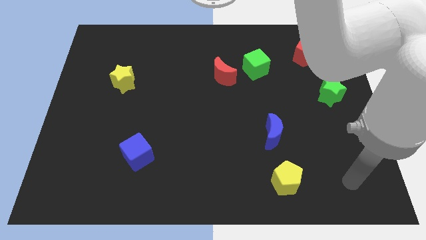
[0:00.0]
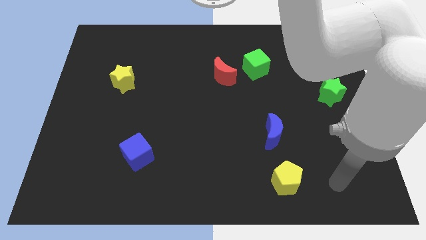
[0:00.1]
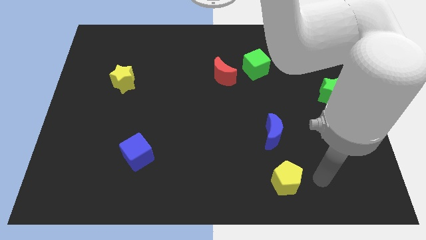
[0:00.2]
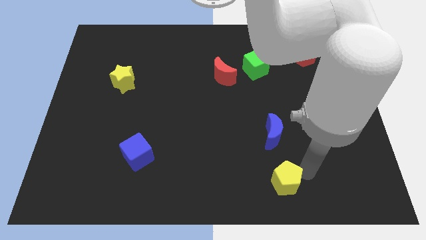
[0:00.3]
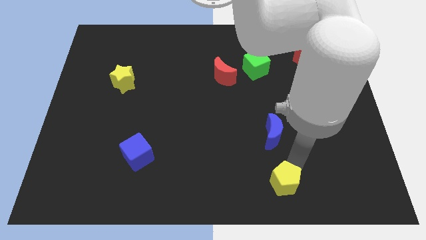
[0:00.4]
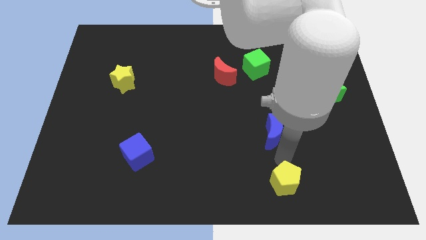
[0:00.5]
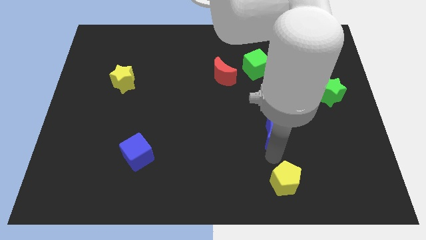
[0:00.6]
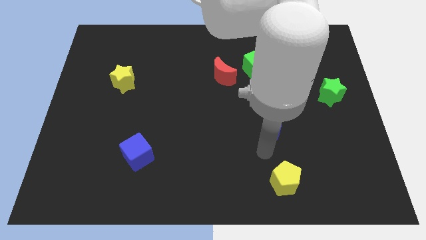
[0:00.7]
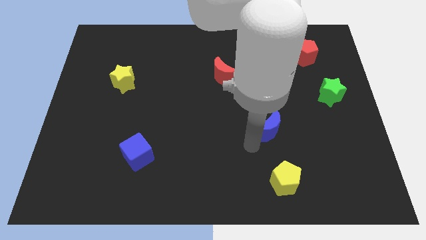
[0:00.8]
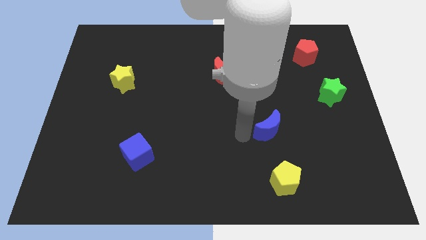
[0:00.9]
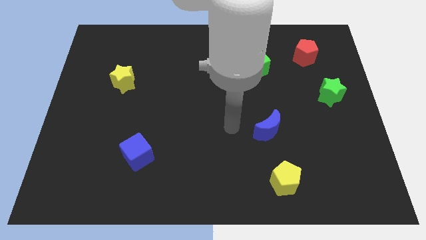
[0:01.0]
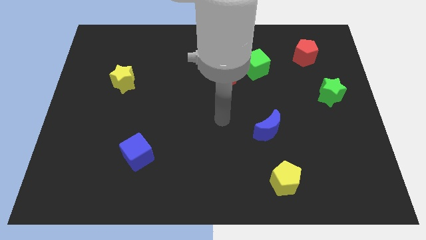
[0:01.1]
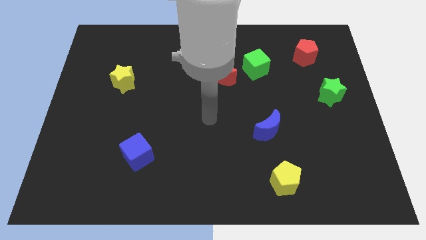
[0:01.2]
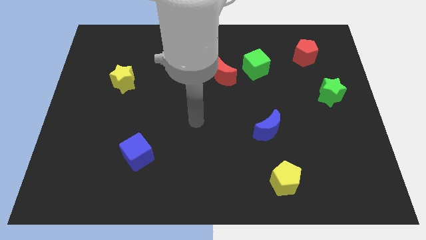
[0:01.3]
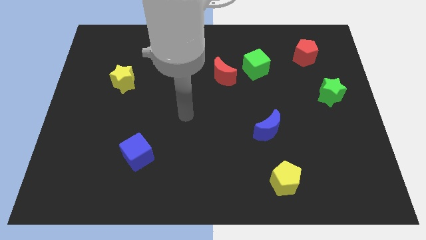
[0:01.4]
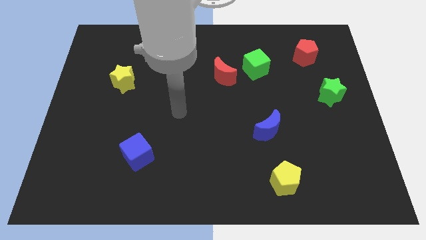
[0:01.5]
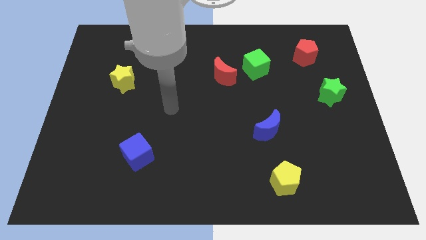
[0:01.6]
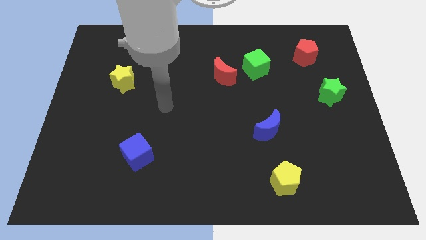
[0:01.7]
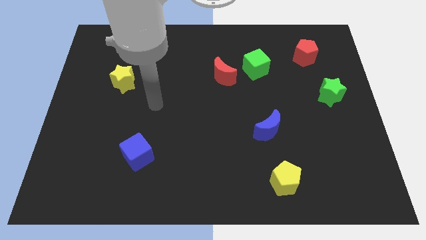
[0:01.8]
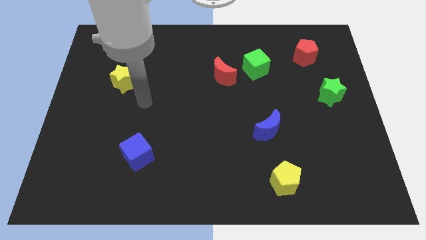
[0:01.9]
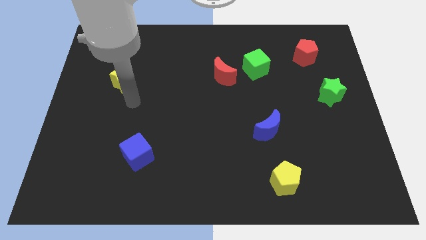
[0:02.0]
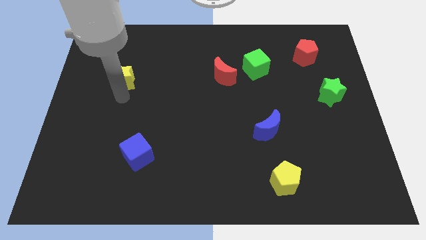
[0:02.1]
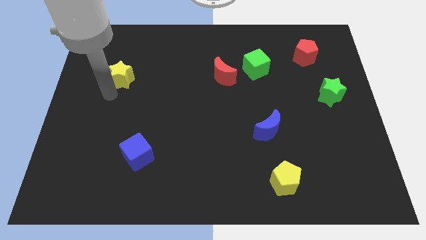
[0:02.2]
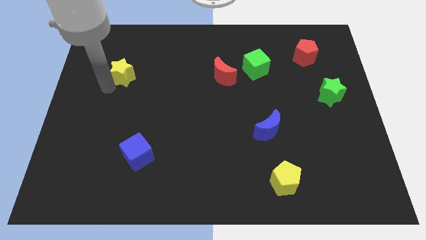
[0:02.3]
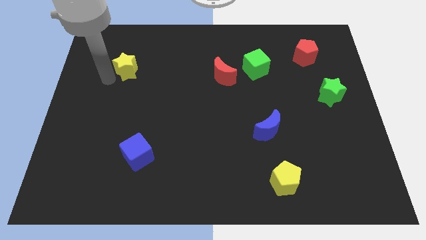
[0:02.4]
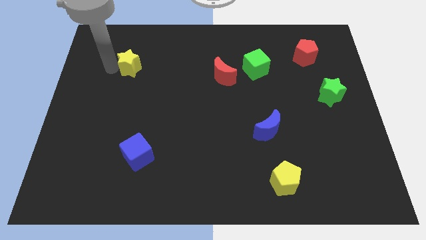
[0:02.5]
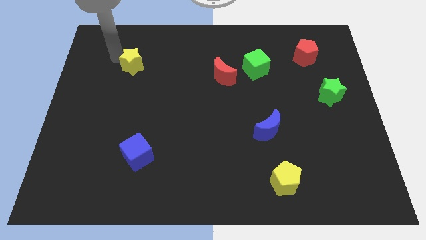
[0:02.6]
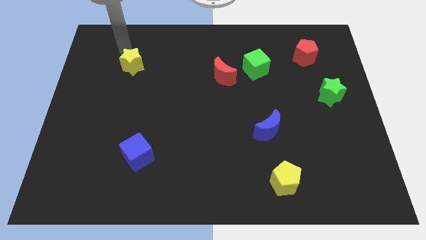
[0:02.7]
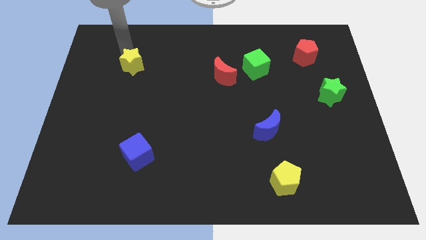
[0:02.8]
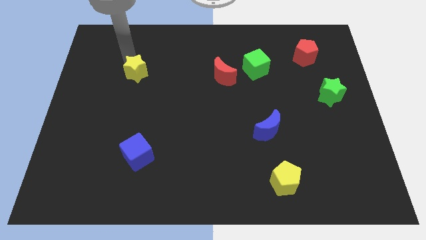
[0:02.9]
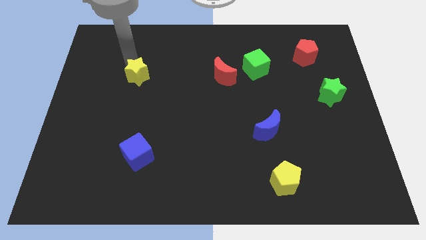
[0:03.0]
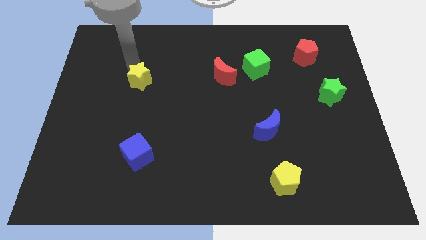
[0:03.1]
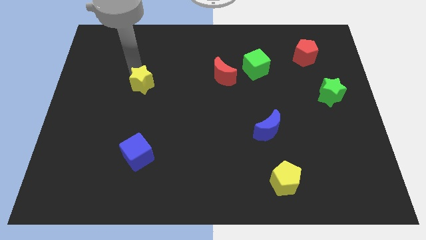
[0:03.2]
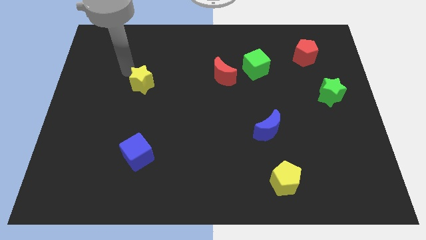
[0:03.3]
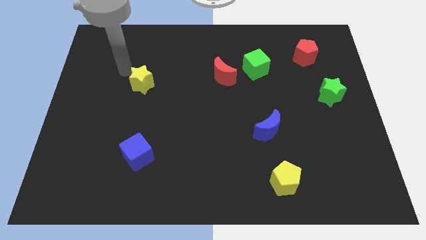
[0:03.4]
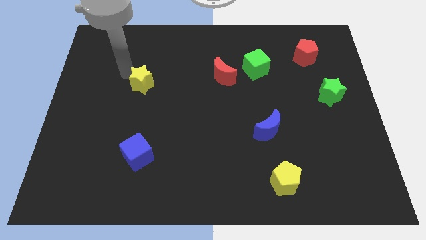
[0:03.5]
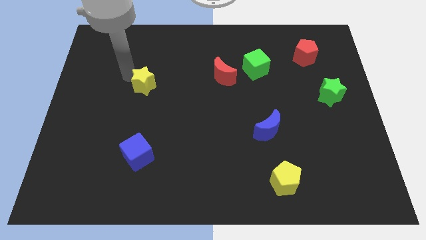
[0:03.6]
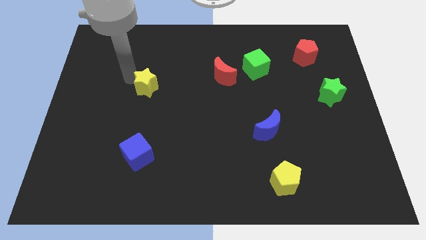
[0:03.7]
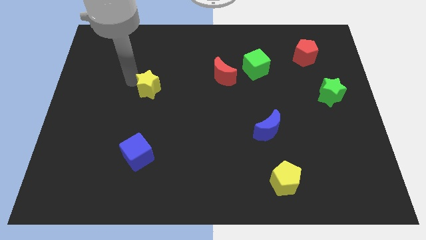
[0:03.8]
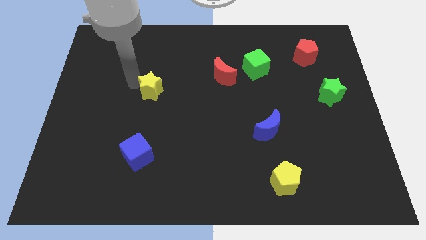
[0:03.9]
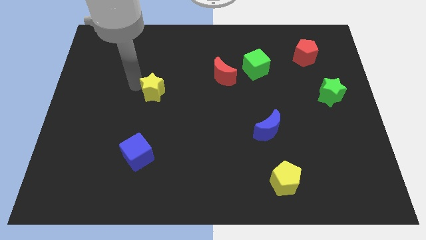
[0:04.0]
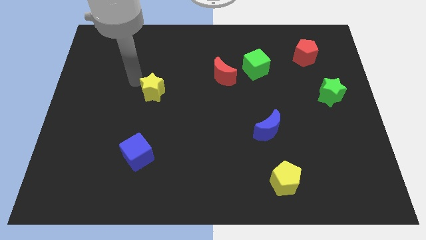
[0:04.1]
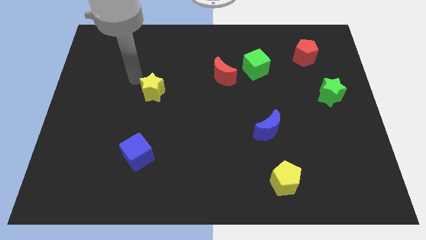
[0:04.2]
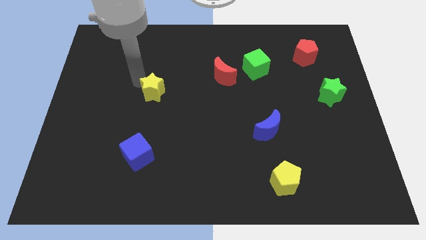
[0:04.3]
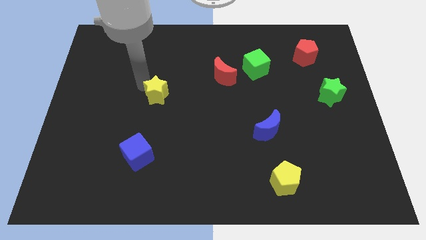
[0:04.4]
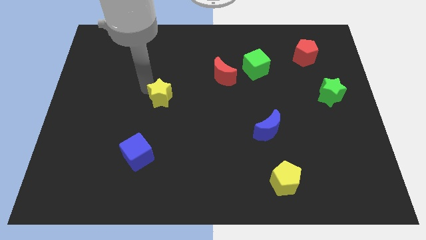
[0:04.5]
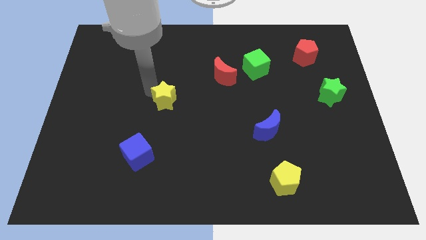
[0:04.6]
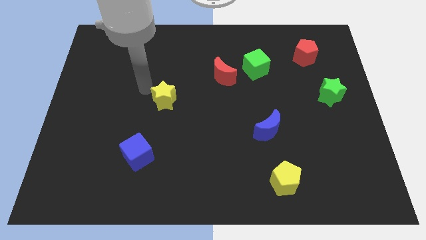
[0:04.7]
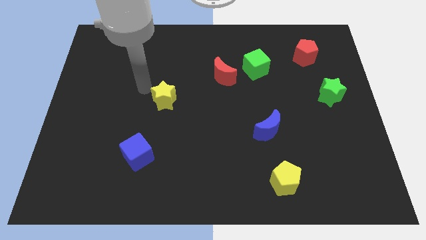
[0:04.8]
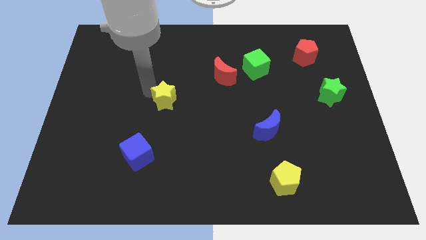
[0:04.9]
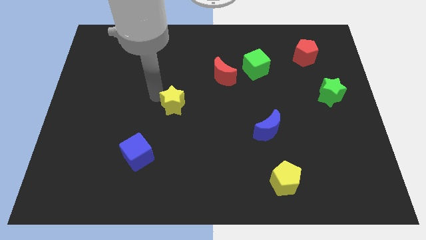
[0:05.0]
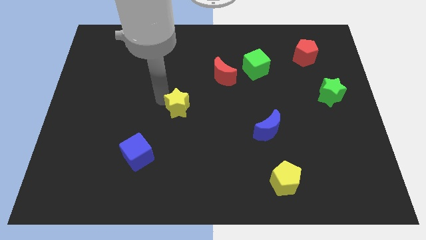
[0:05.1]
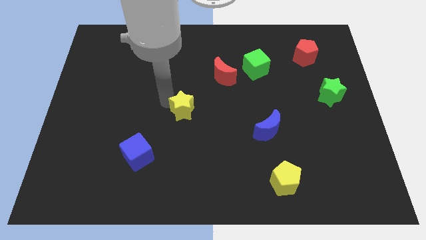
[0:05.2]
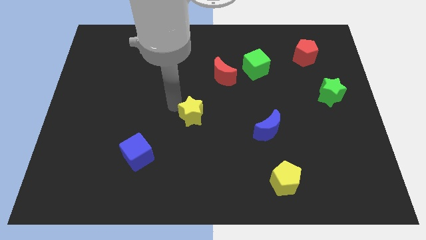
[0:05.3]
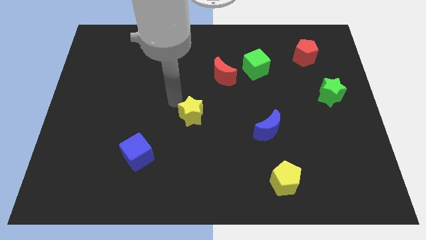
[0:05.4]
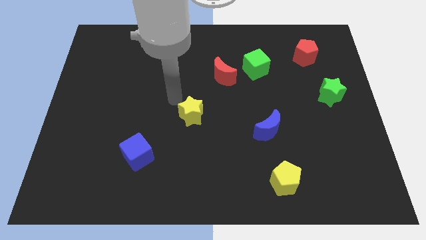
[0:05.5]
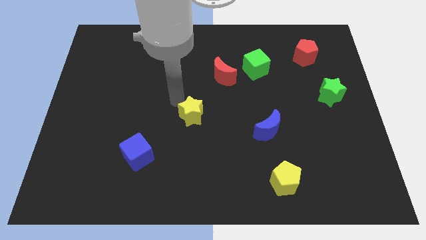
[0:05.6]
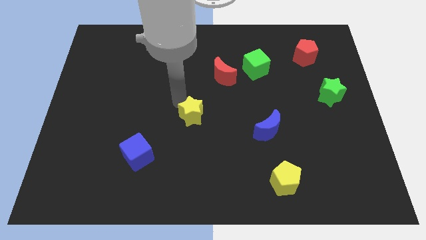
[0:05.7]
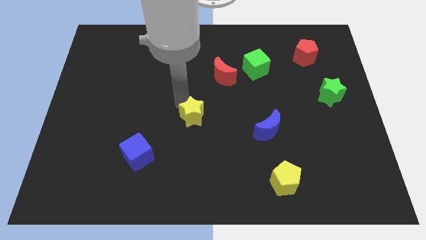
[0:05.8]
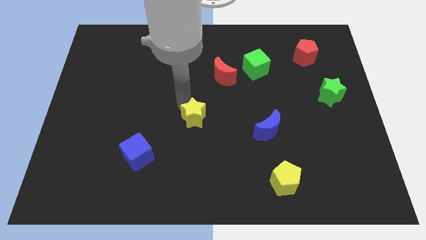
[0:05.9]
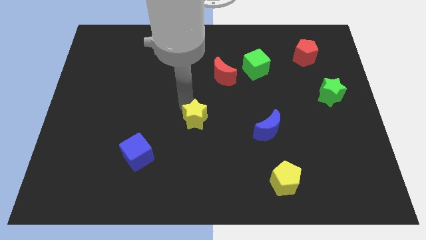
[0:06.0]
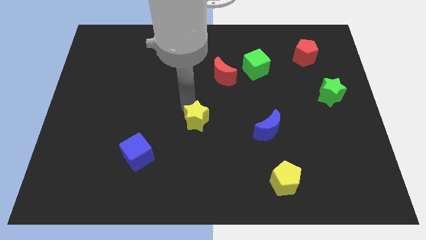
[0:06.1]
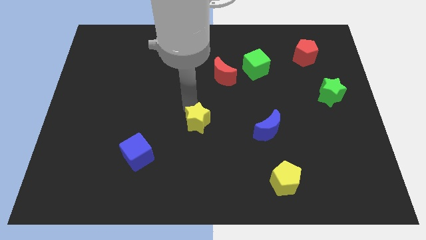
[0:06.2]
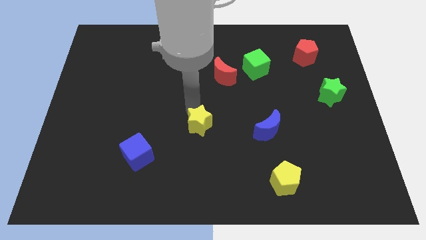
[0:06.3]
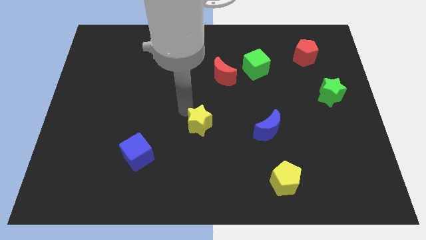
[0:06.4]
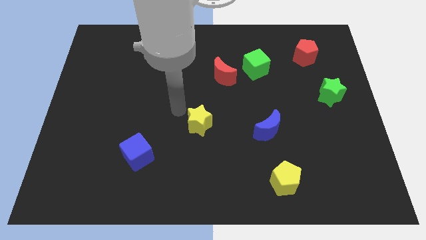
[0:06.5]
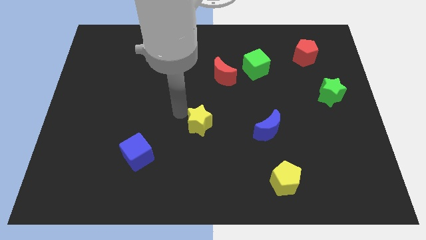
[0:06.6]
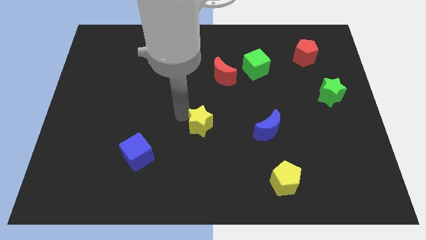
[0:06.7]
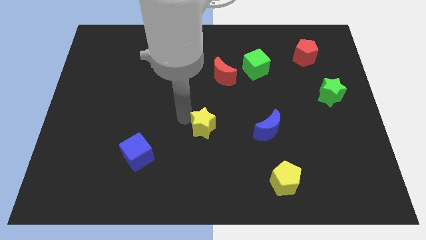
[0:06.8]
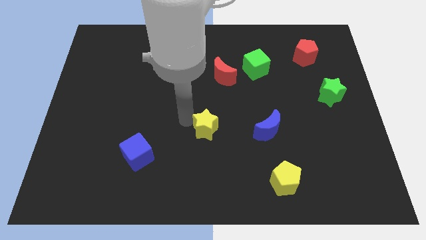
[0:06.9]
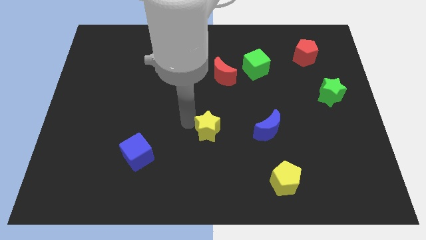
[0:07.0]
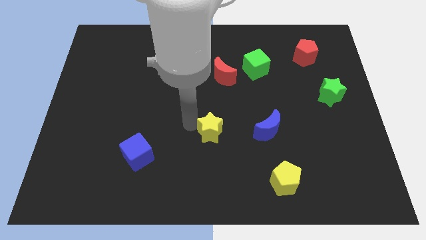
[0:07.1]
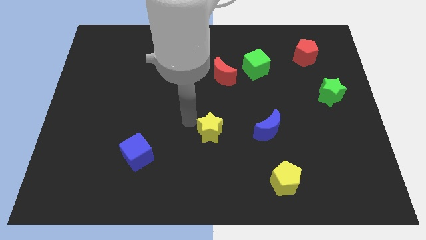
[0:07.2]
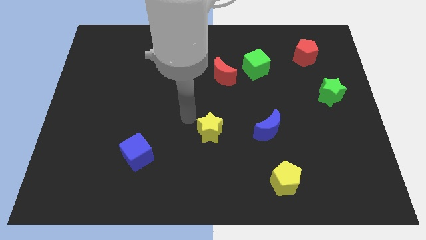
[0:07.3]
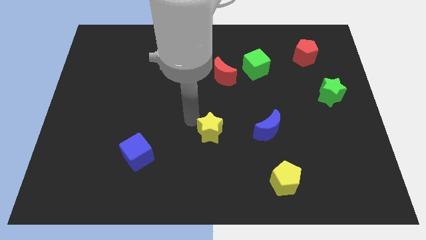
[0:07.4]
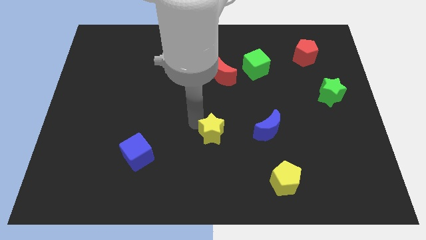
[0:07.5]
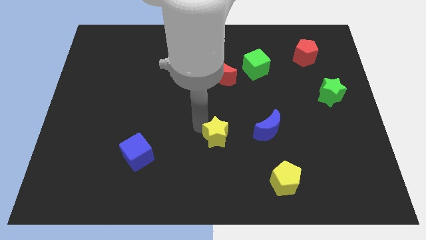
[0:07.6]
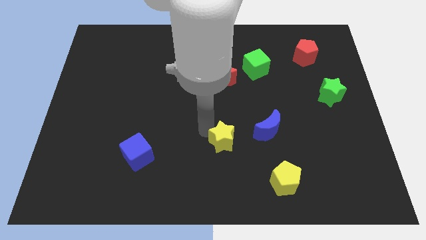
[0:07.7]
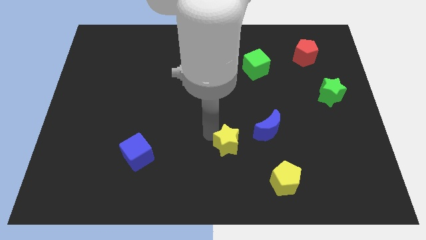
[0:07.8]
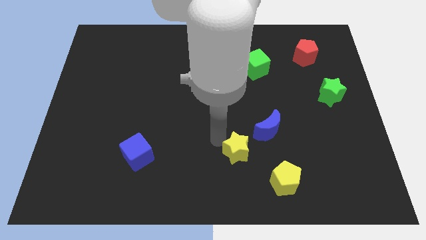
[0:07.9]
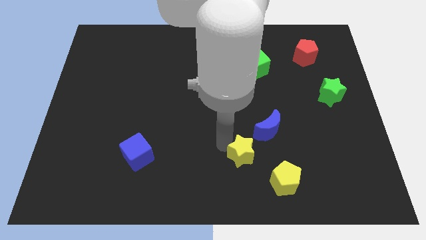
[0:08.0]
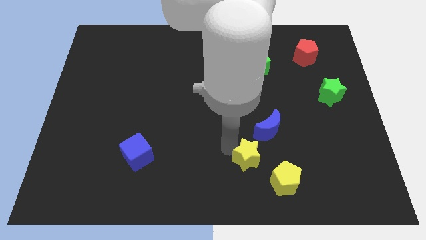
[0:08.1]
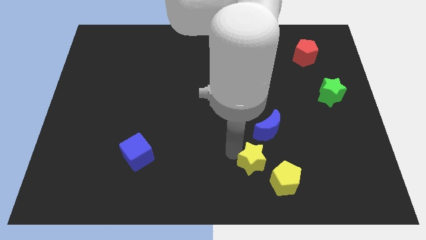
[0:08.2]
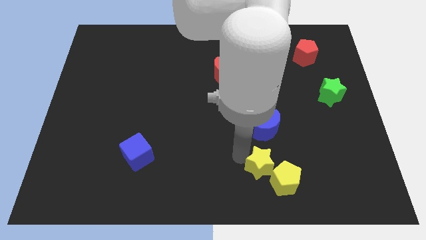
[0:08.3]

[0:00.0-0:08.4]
push the yellow star close to the yellow pentagon
